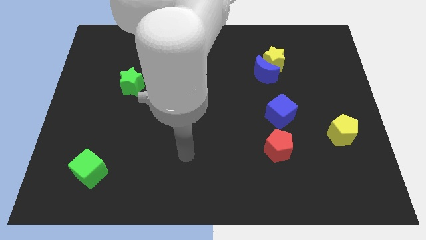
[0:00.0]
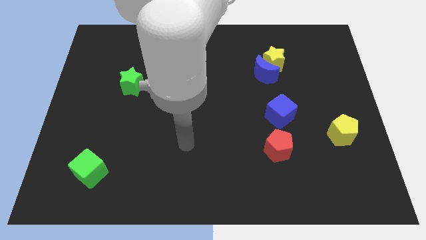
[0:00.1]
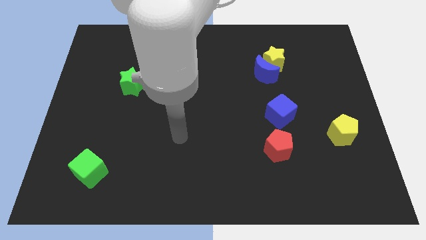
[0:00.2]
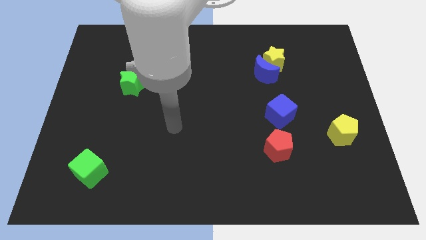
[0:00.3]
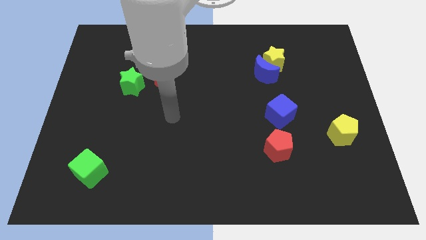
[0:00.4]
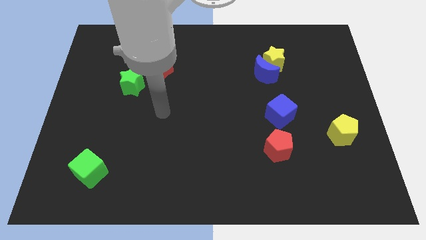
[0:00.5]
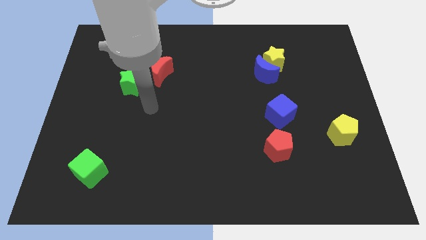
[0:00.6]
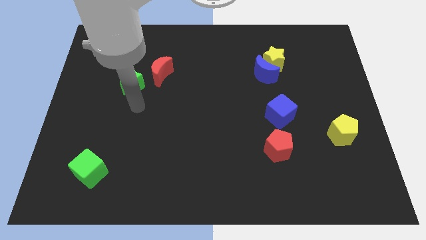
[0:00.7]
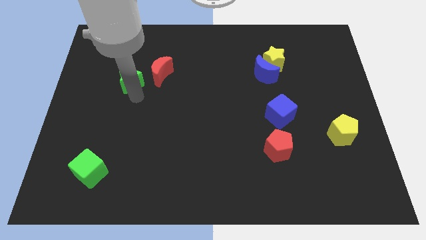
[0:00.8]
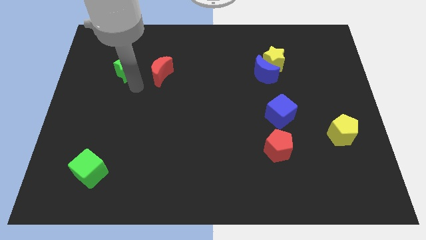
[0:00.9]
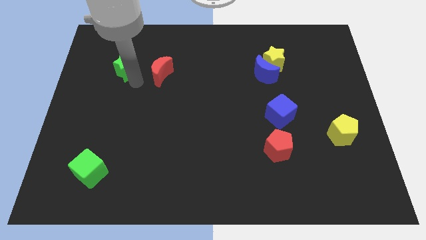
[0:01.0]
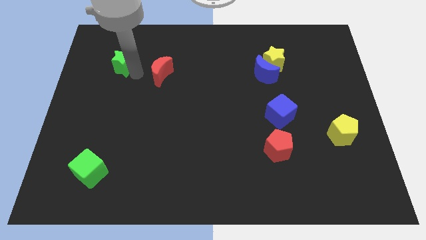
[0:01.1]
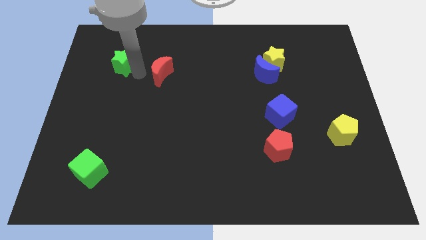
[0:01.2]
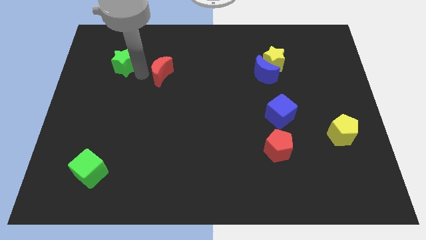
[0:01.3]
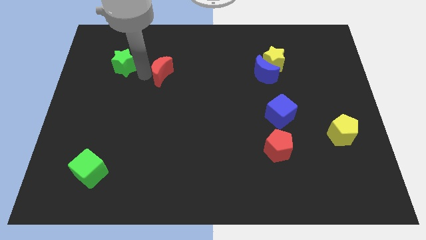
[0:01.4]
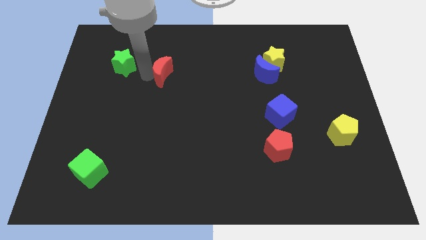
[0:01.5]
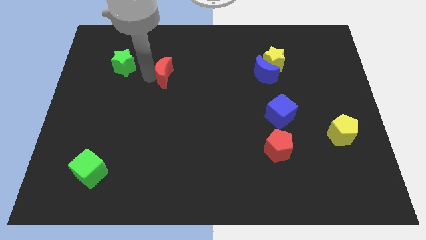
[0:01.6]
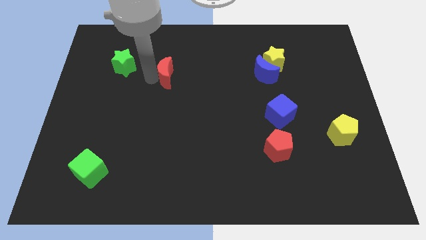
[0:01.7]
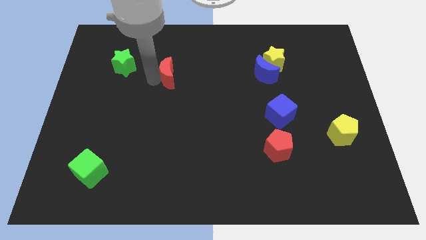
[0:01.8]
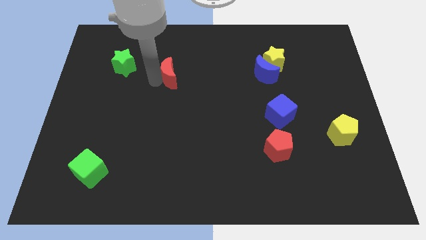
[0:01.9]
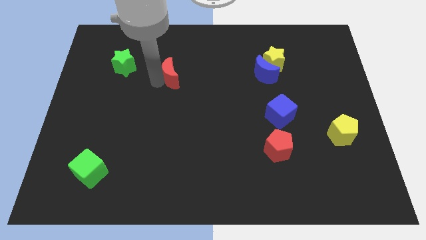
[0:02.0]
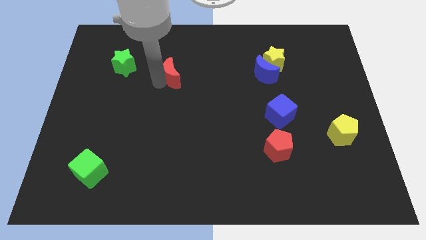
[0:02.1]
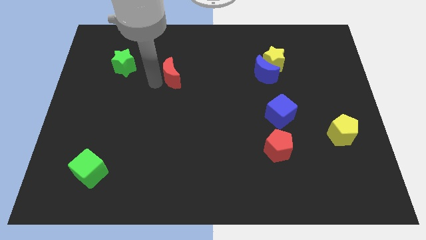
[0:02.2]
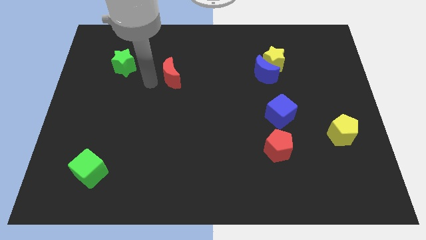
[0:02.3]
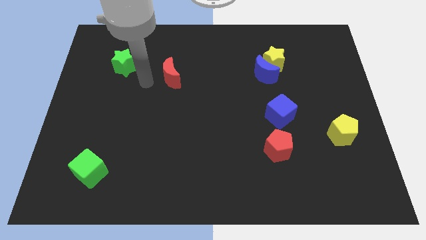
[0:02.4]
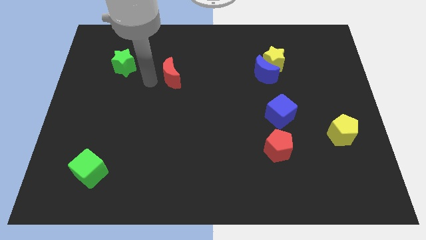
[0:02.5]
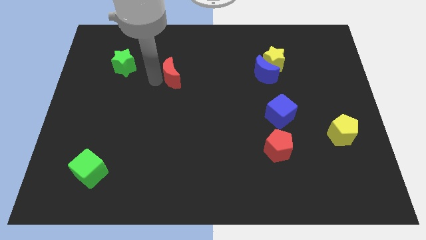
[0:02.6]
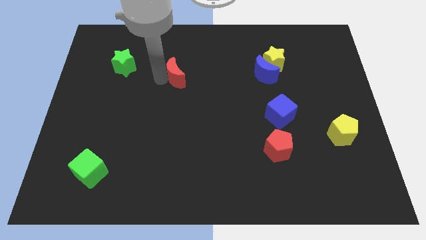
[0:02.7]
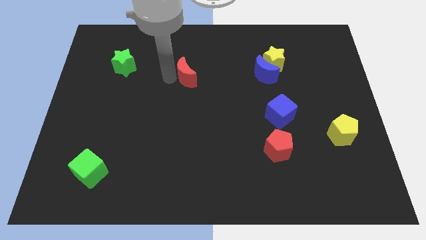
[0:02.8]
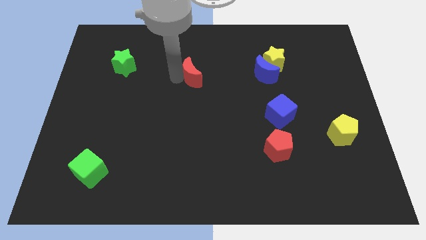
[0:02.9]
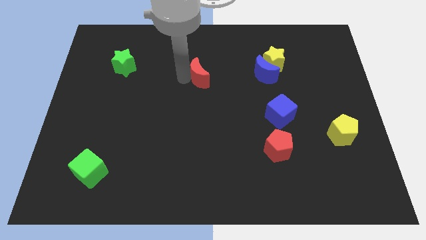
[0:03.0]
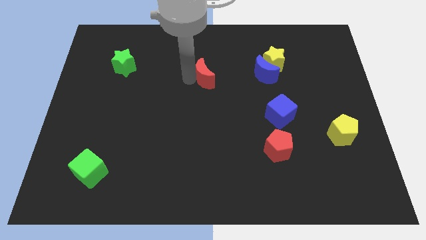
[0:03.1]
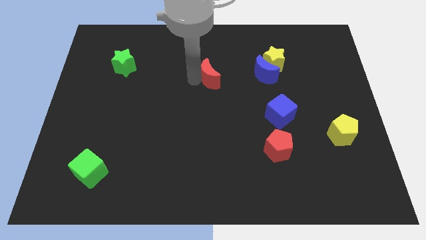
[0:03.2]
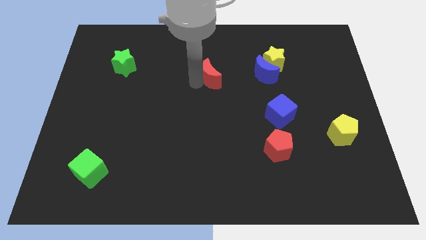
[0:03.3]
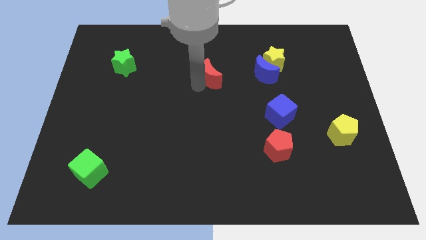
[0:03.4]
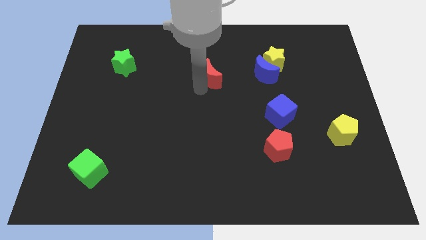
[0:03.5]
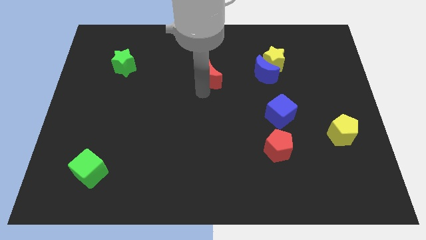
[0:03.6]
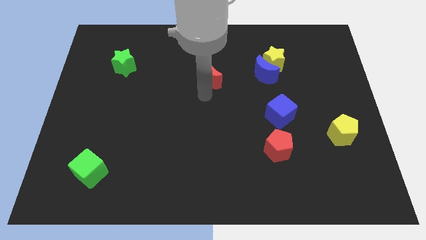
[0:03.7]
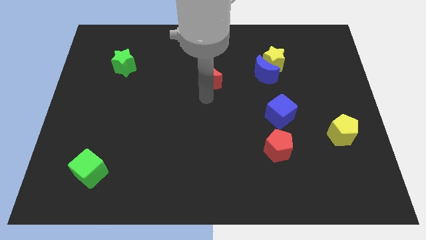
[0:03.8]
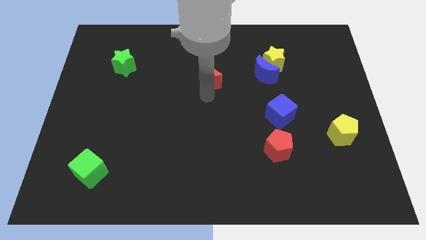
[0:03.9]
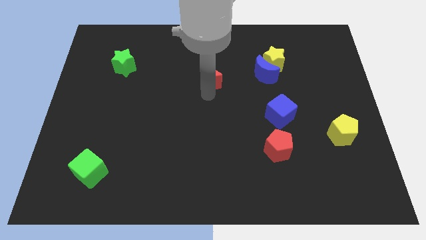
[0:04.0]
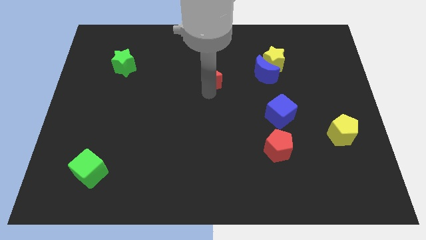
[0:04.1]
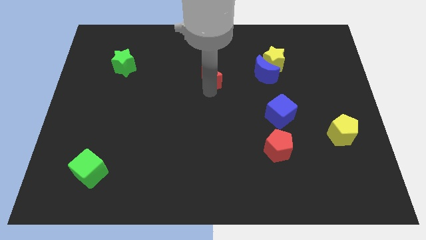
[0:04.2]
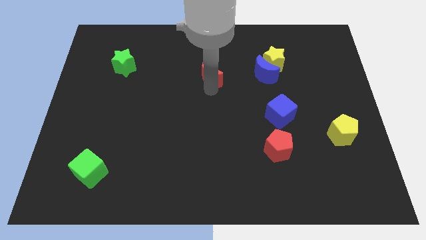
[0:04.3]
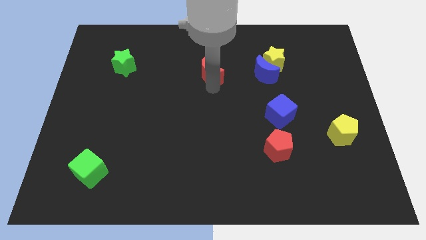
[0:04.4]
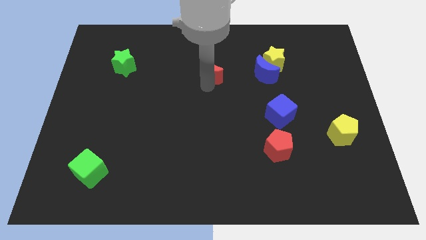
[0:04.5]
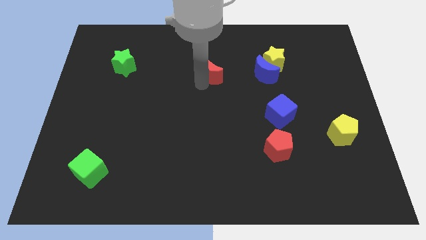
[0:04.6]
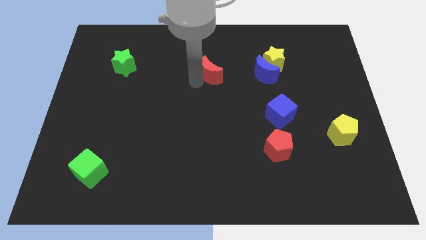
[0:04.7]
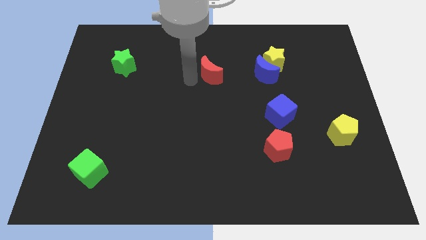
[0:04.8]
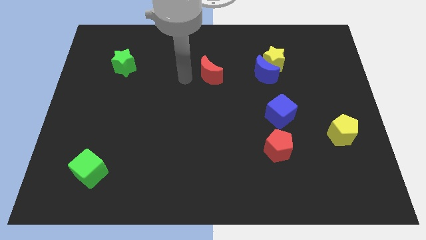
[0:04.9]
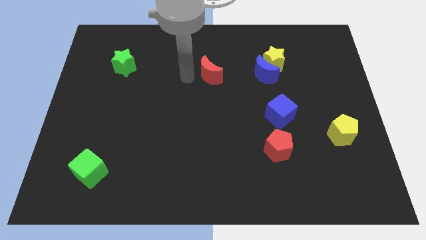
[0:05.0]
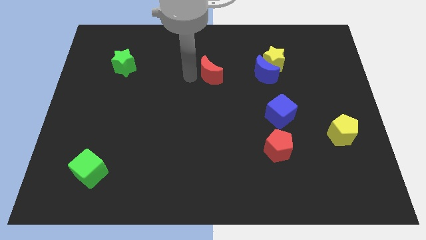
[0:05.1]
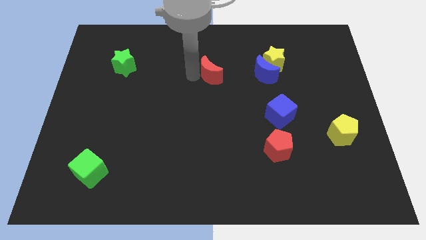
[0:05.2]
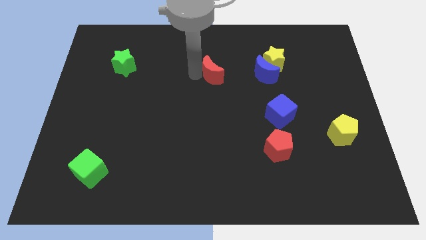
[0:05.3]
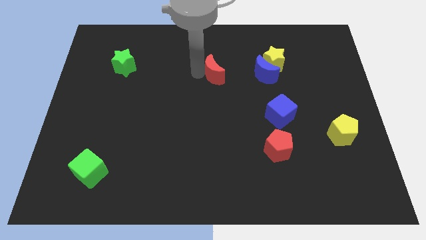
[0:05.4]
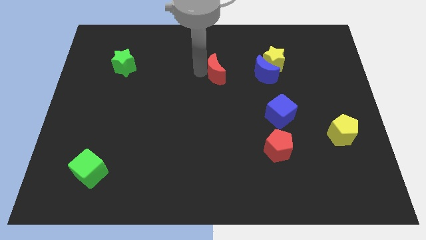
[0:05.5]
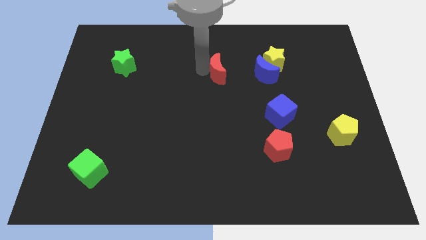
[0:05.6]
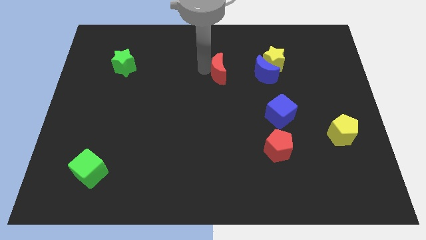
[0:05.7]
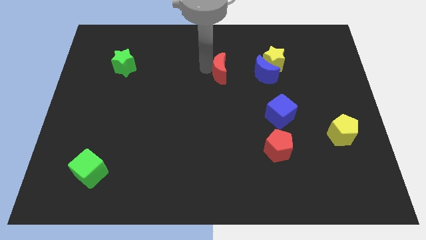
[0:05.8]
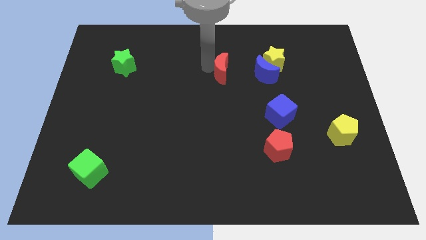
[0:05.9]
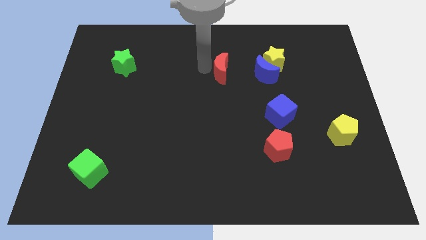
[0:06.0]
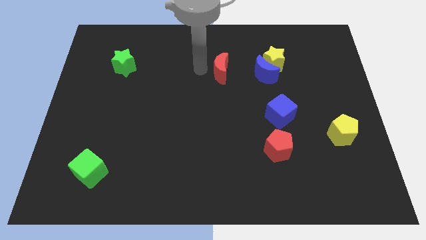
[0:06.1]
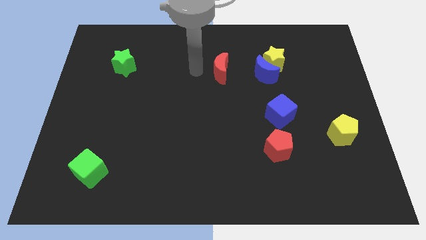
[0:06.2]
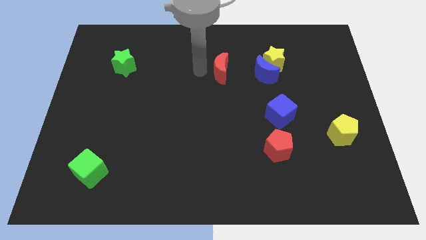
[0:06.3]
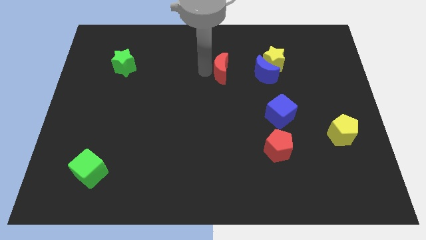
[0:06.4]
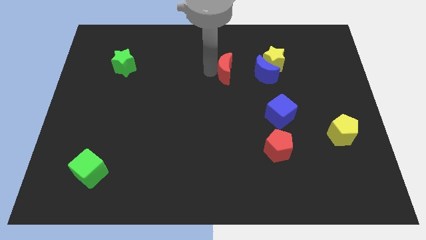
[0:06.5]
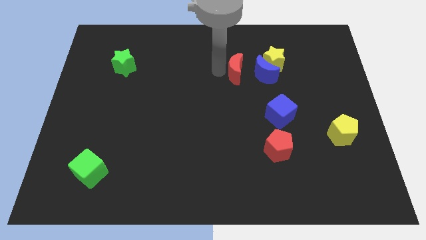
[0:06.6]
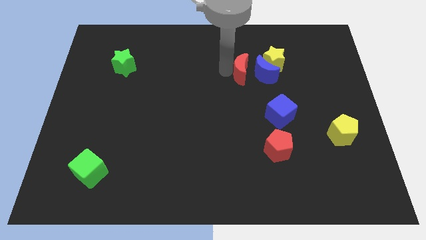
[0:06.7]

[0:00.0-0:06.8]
put the red moon to the blue moon
